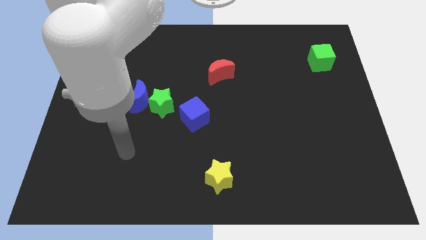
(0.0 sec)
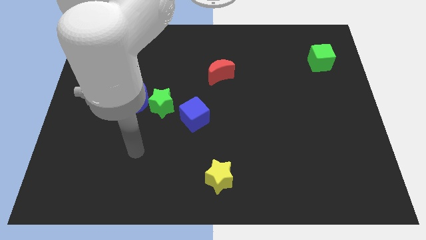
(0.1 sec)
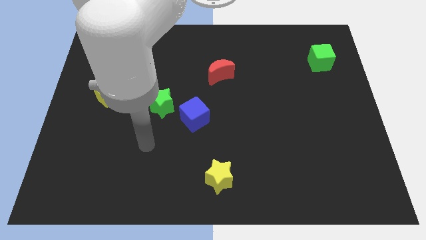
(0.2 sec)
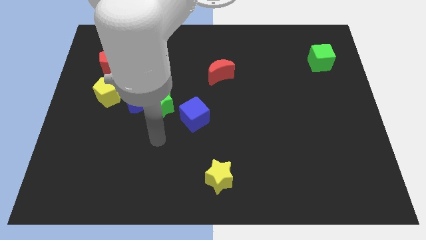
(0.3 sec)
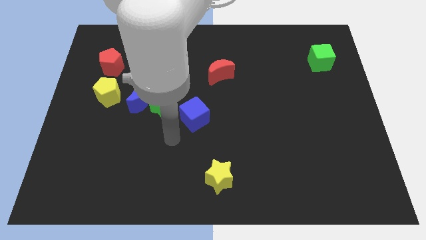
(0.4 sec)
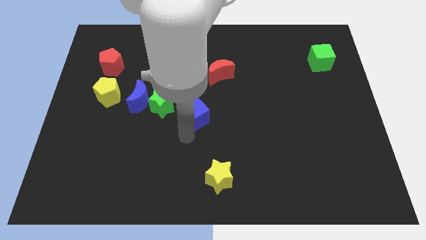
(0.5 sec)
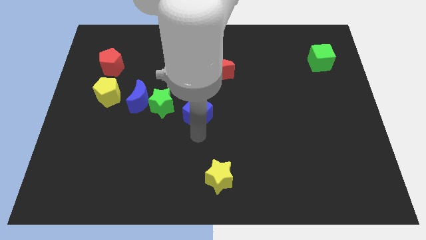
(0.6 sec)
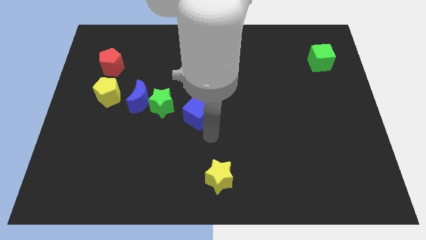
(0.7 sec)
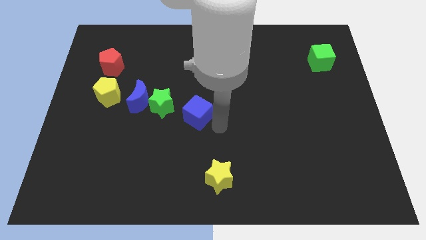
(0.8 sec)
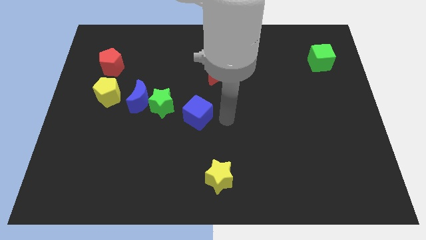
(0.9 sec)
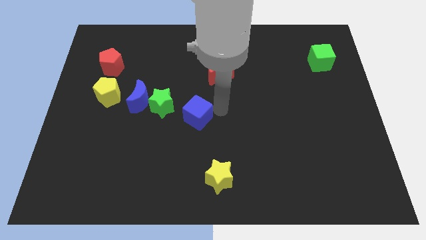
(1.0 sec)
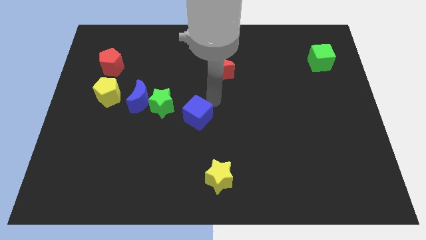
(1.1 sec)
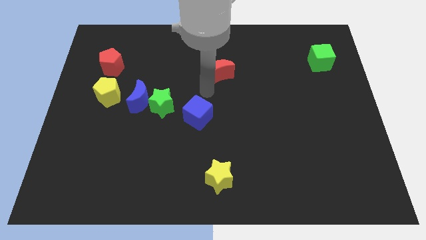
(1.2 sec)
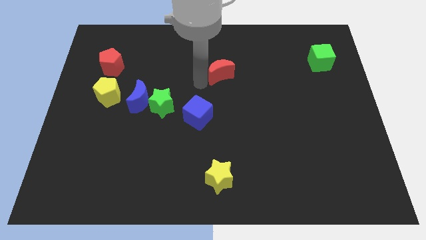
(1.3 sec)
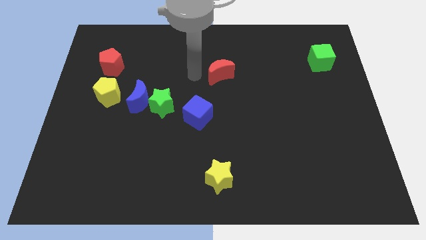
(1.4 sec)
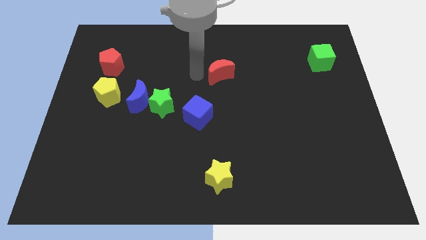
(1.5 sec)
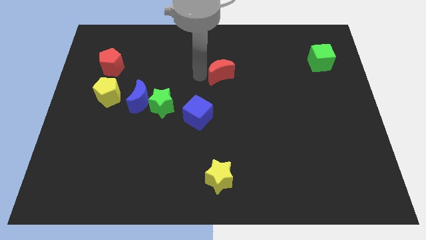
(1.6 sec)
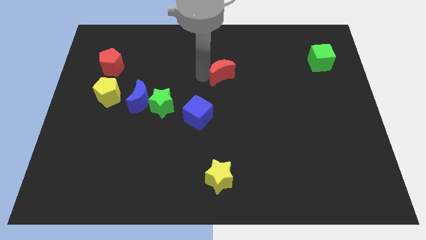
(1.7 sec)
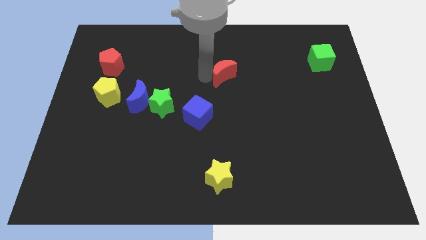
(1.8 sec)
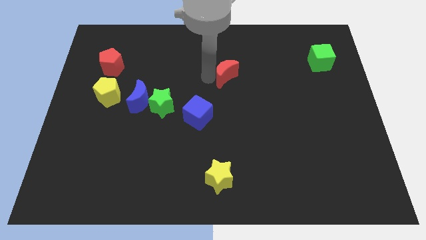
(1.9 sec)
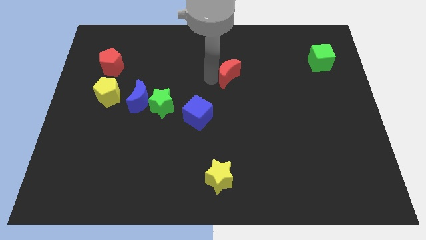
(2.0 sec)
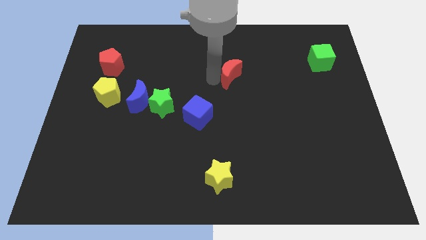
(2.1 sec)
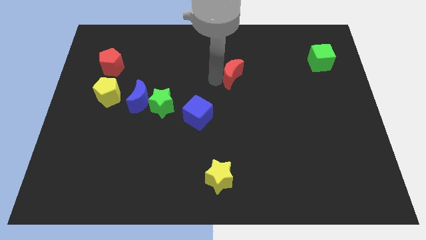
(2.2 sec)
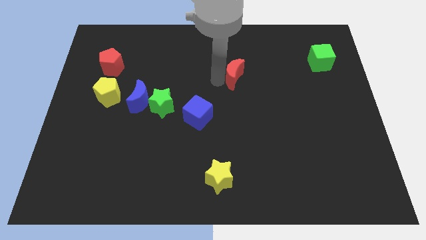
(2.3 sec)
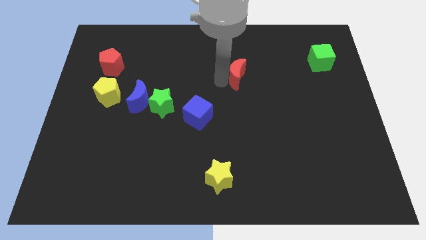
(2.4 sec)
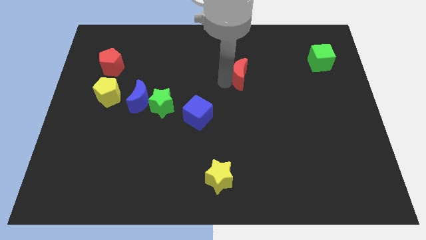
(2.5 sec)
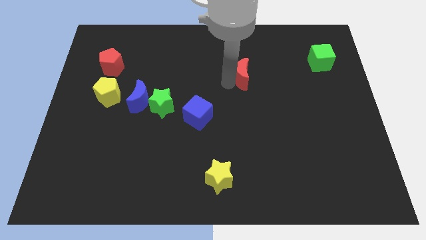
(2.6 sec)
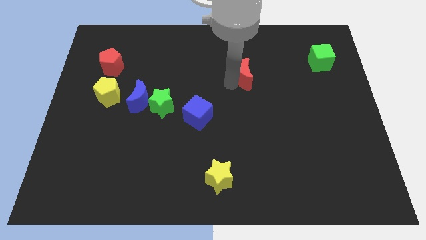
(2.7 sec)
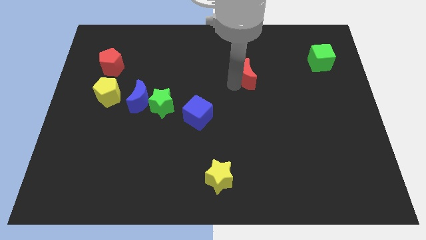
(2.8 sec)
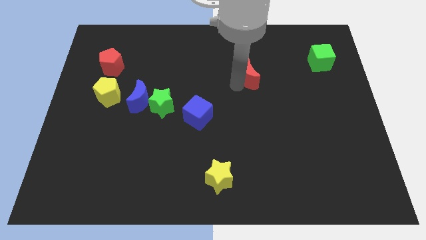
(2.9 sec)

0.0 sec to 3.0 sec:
push the red moon somewhat right

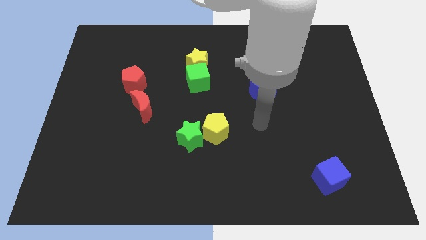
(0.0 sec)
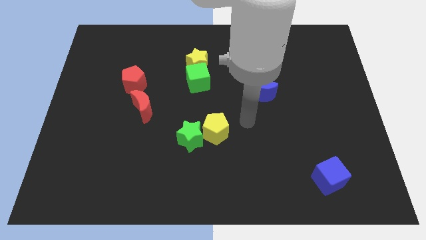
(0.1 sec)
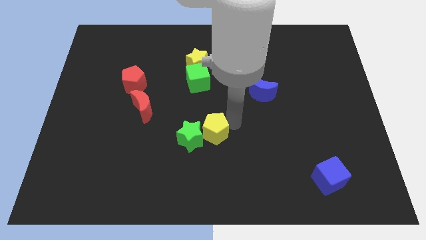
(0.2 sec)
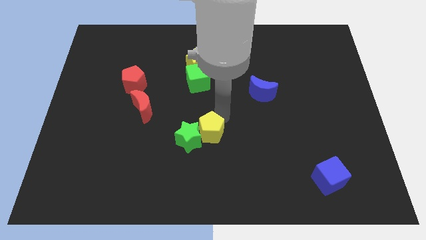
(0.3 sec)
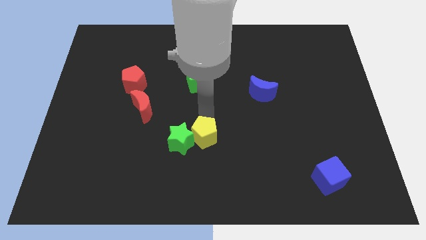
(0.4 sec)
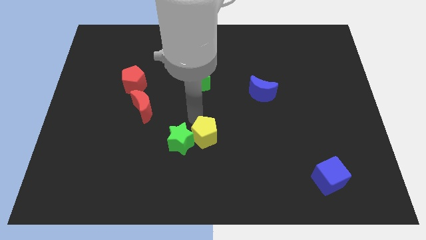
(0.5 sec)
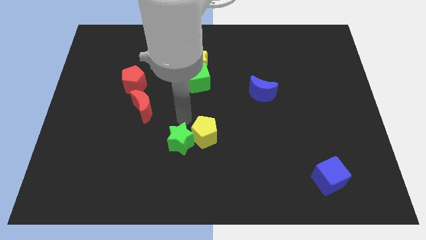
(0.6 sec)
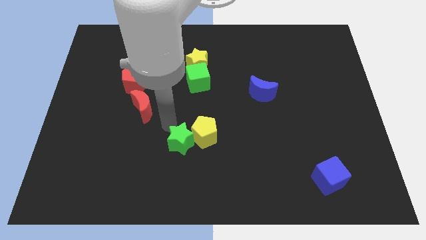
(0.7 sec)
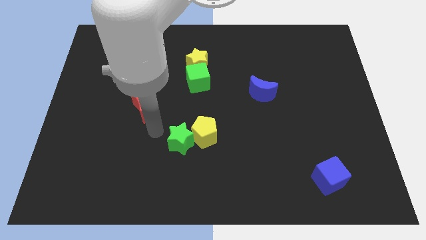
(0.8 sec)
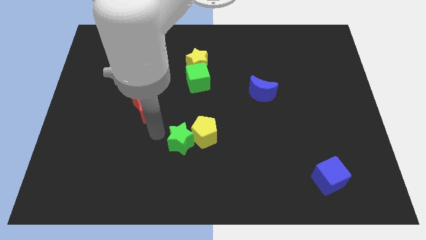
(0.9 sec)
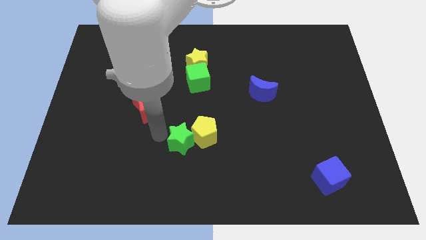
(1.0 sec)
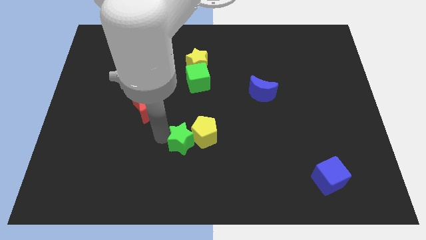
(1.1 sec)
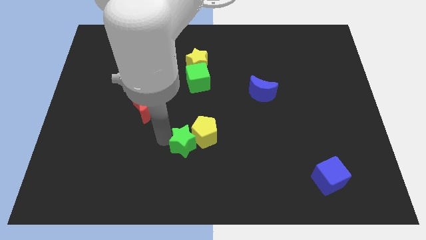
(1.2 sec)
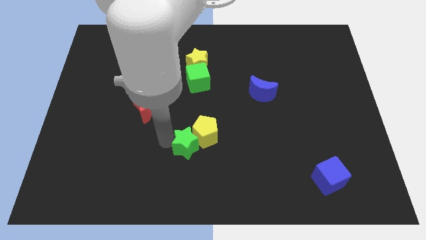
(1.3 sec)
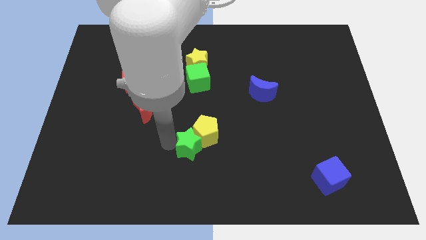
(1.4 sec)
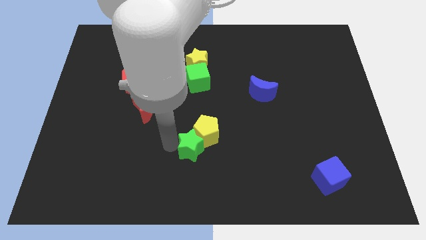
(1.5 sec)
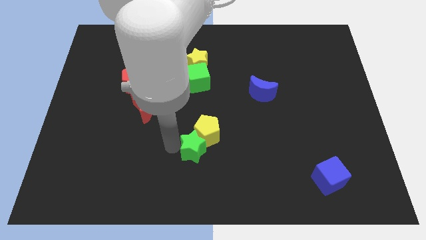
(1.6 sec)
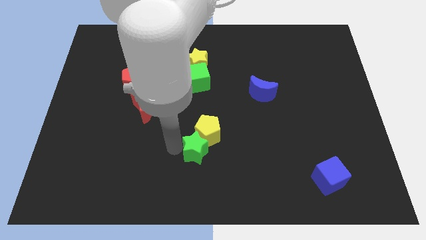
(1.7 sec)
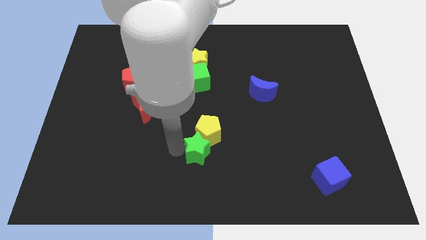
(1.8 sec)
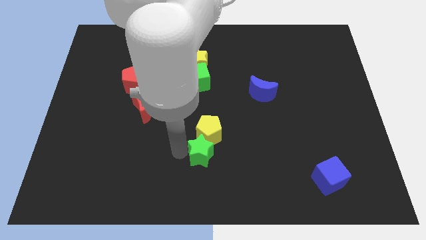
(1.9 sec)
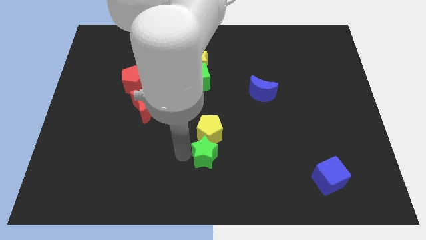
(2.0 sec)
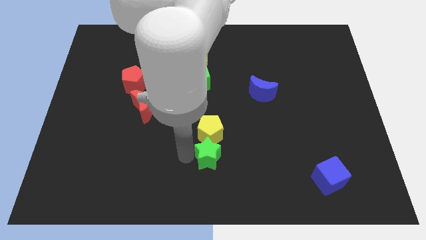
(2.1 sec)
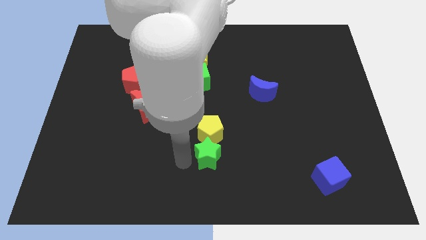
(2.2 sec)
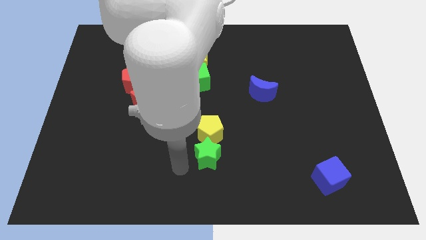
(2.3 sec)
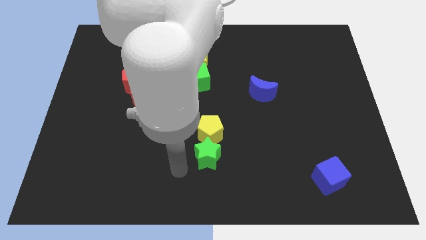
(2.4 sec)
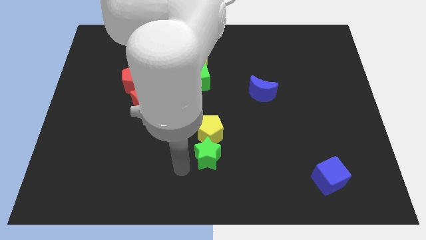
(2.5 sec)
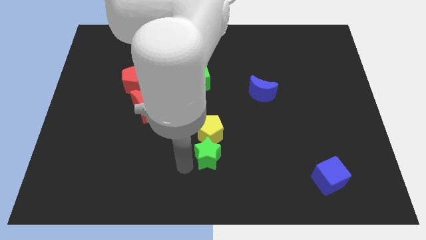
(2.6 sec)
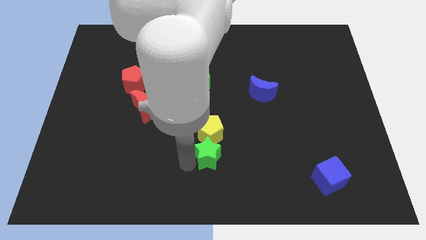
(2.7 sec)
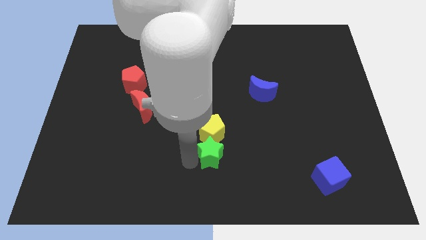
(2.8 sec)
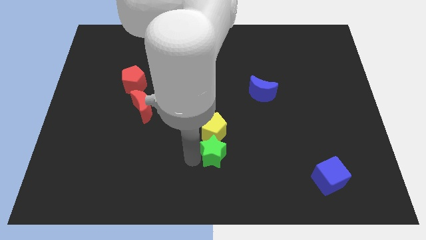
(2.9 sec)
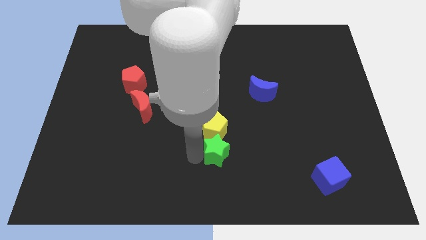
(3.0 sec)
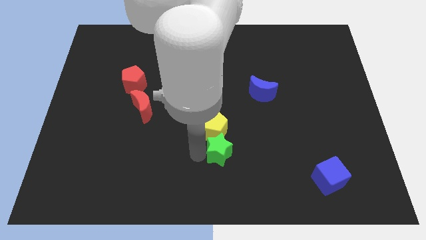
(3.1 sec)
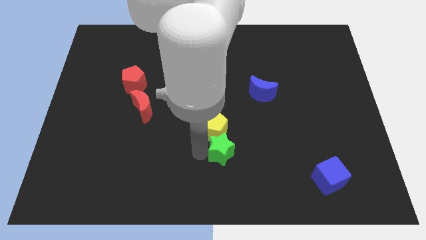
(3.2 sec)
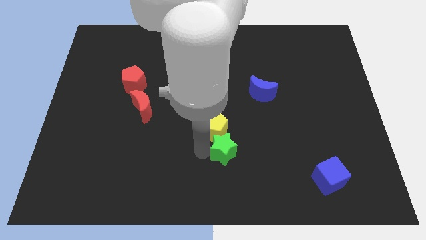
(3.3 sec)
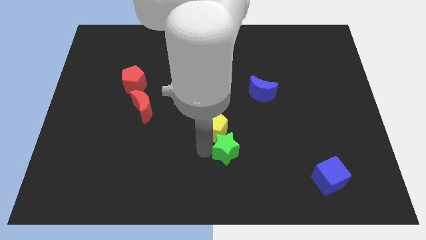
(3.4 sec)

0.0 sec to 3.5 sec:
slightly slide the green star right

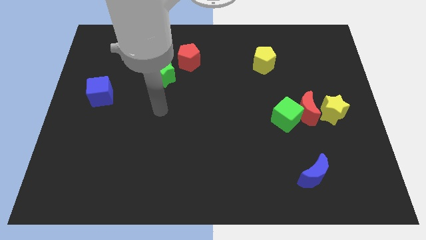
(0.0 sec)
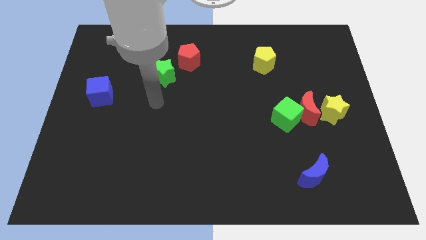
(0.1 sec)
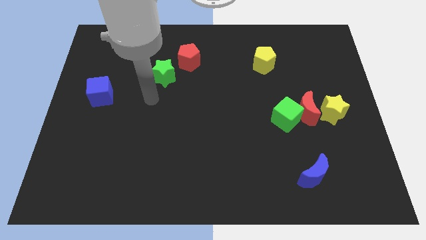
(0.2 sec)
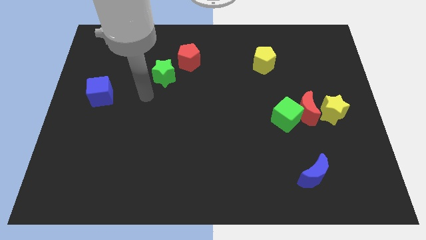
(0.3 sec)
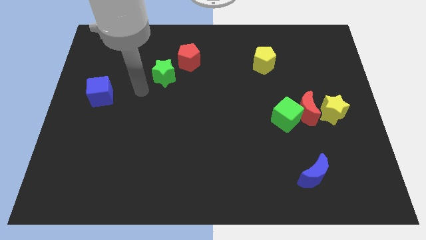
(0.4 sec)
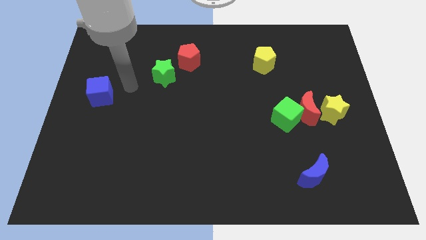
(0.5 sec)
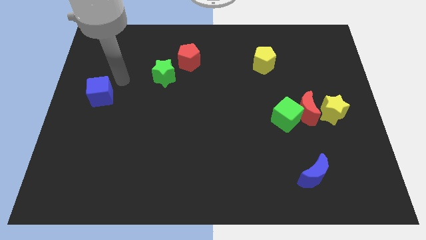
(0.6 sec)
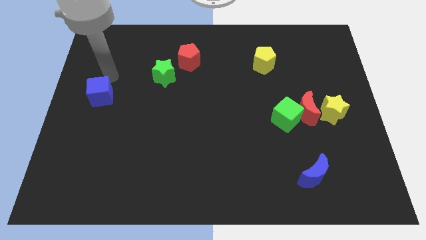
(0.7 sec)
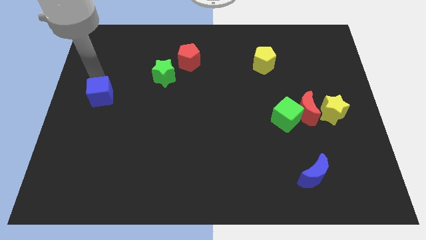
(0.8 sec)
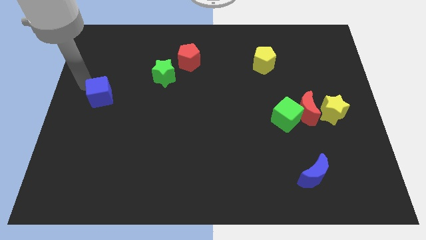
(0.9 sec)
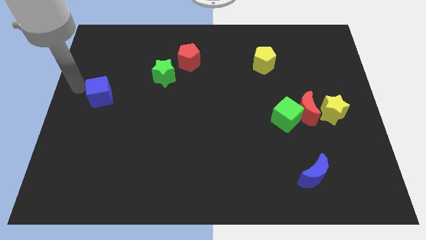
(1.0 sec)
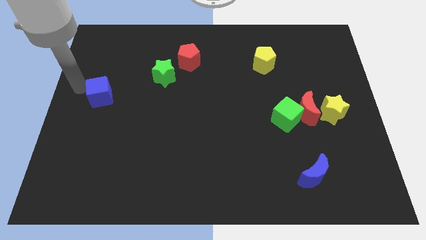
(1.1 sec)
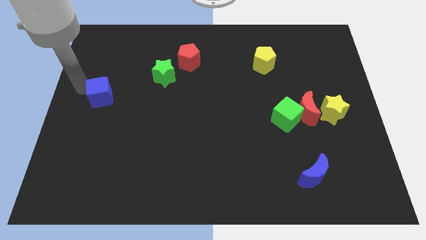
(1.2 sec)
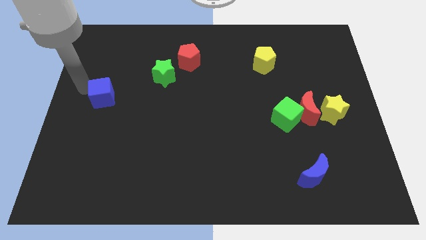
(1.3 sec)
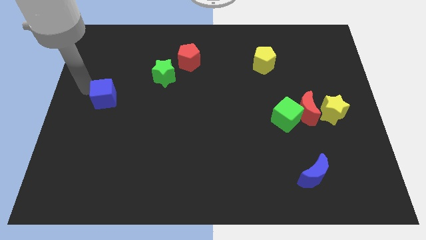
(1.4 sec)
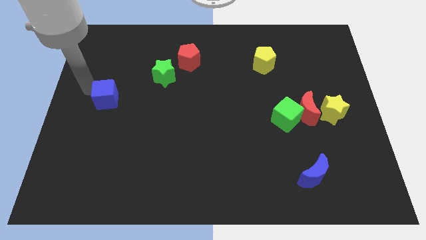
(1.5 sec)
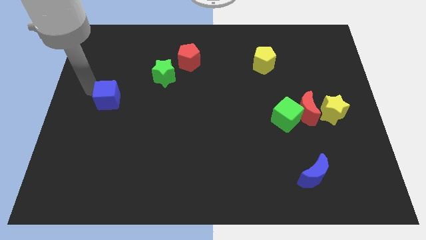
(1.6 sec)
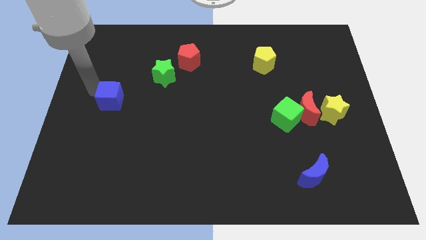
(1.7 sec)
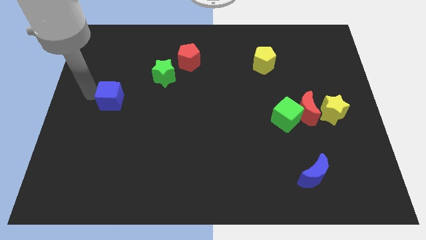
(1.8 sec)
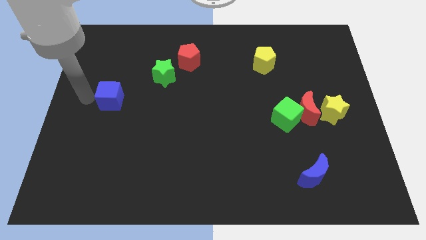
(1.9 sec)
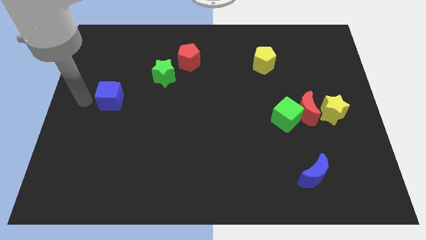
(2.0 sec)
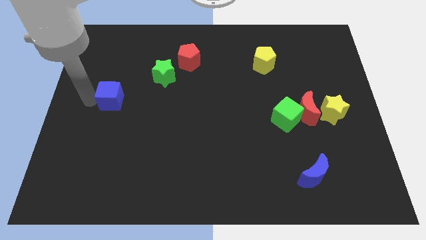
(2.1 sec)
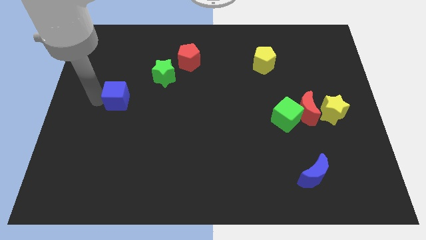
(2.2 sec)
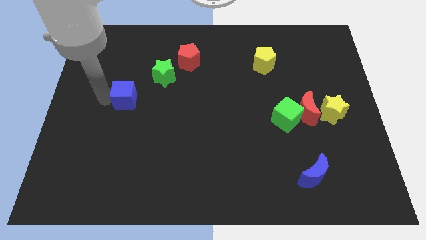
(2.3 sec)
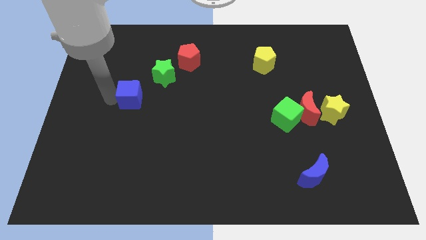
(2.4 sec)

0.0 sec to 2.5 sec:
slide the blue cube right a little bit
